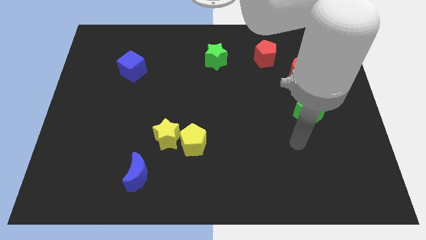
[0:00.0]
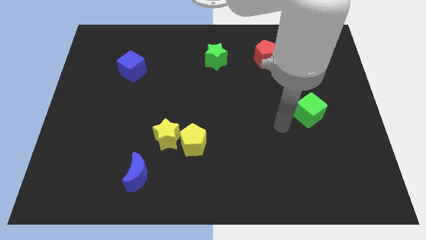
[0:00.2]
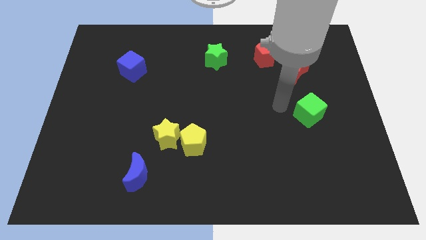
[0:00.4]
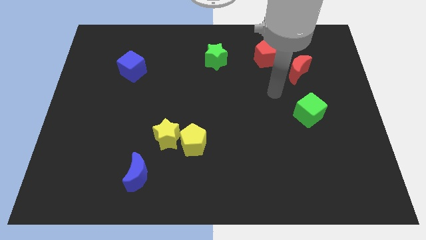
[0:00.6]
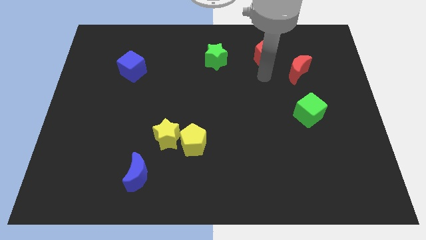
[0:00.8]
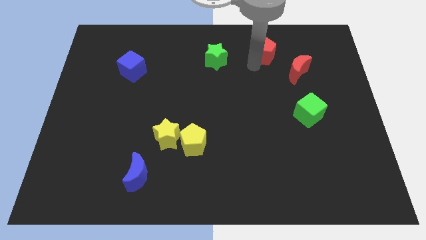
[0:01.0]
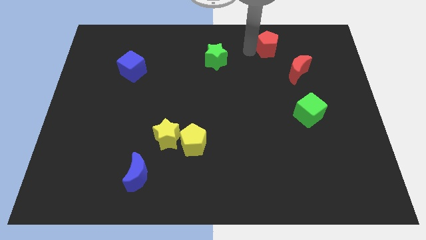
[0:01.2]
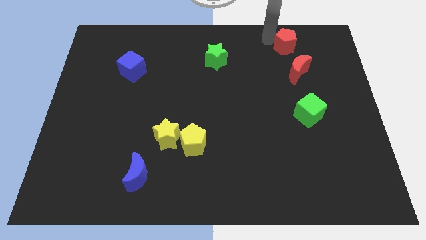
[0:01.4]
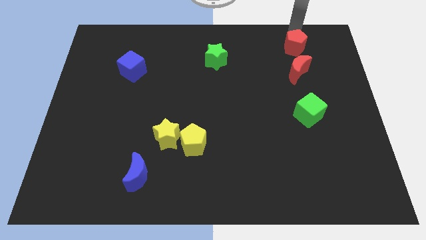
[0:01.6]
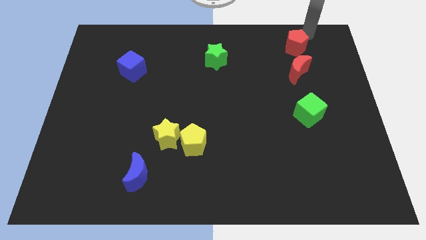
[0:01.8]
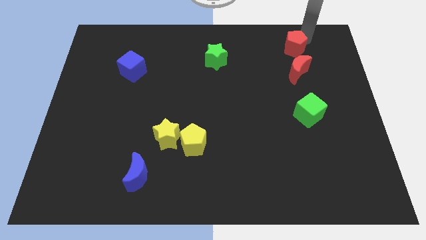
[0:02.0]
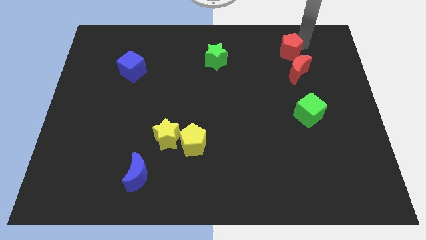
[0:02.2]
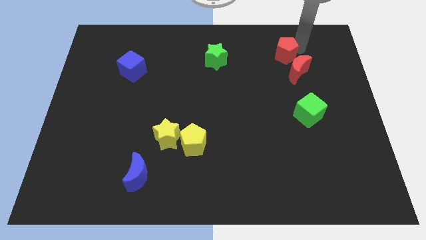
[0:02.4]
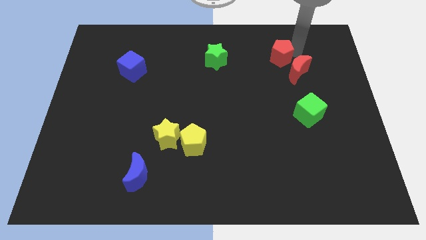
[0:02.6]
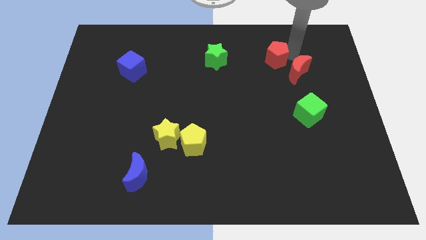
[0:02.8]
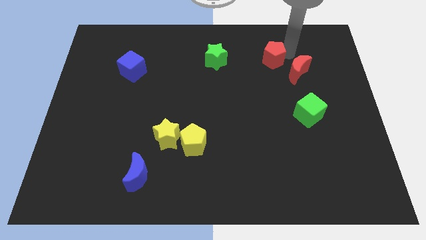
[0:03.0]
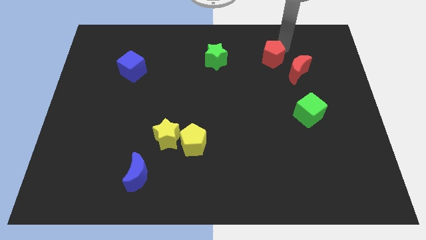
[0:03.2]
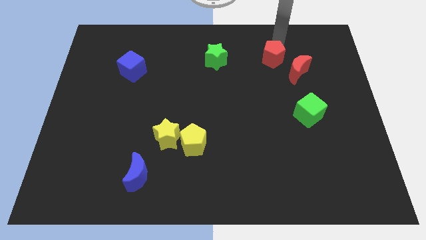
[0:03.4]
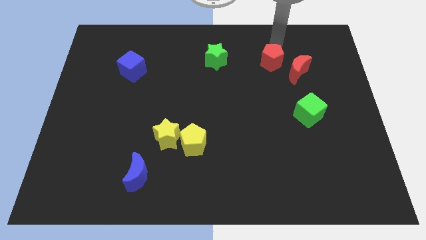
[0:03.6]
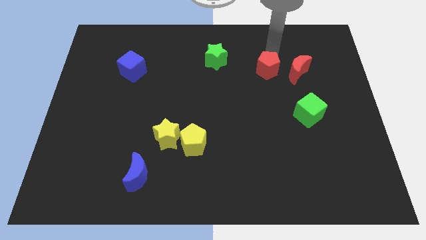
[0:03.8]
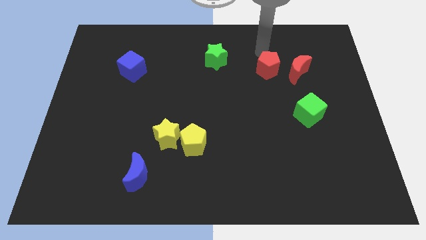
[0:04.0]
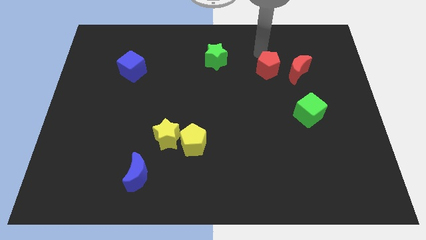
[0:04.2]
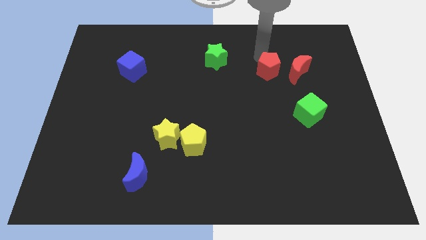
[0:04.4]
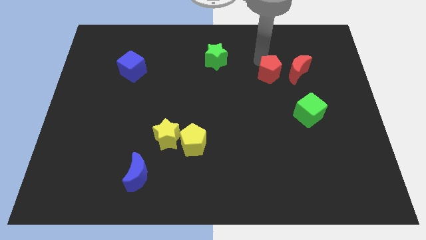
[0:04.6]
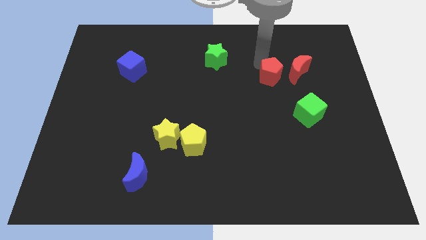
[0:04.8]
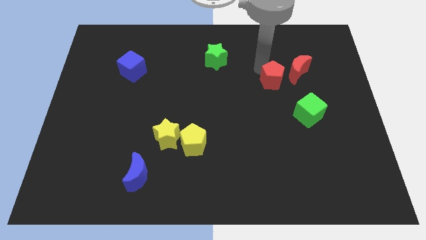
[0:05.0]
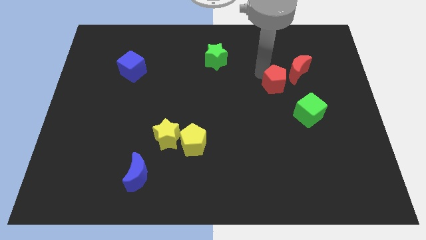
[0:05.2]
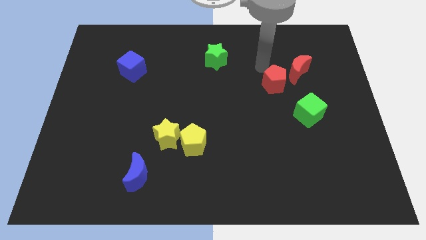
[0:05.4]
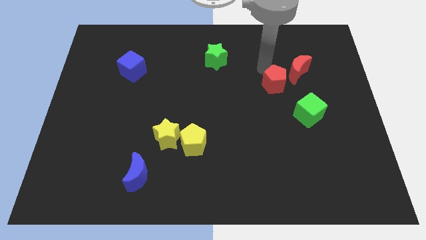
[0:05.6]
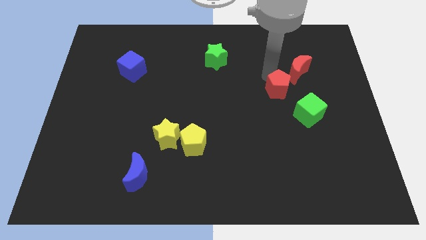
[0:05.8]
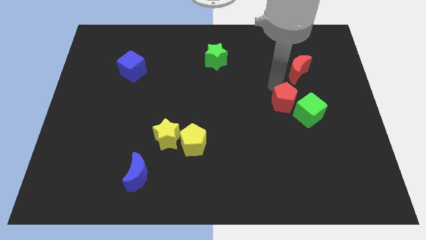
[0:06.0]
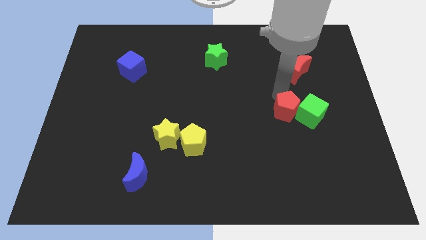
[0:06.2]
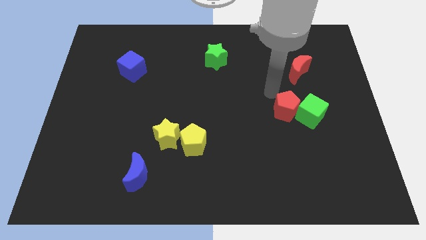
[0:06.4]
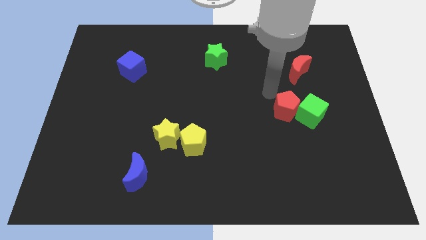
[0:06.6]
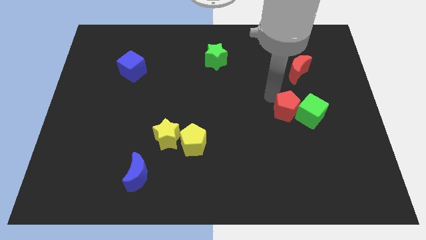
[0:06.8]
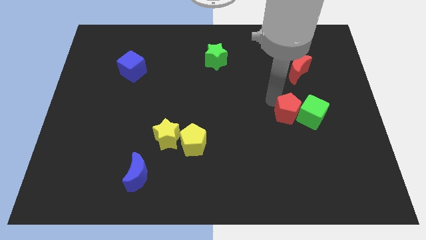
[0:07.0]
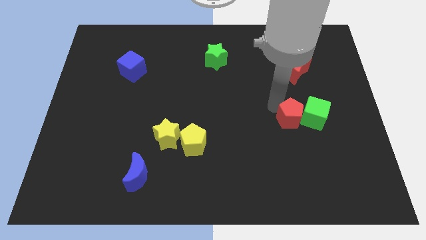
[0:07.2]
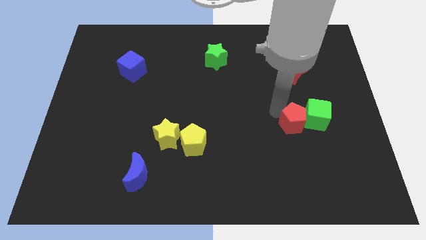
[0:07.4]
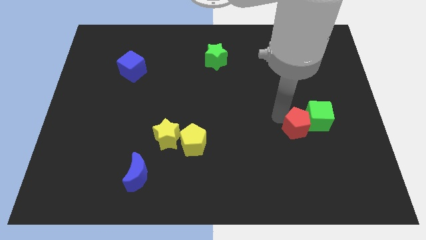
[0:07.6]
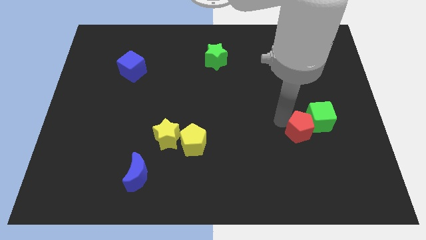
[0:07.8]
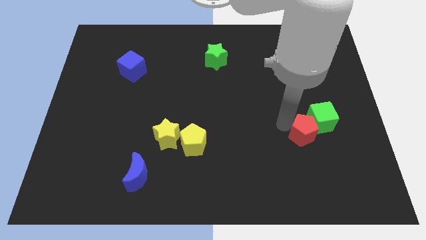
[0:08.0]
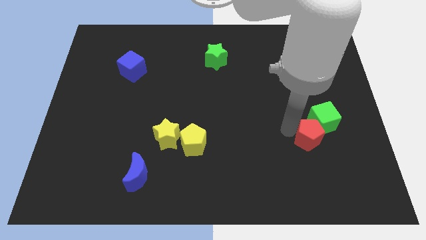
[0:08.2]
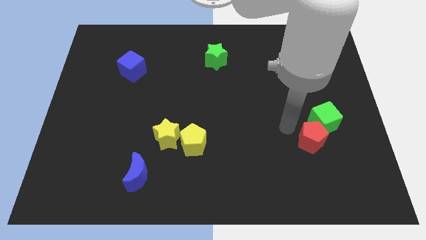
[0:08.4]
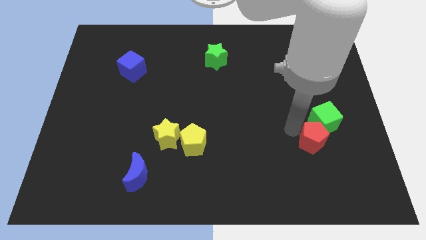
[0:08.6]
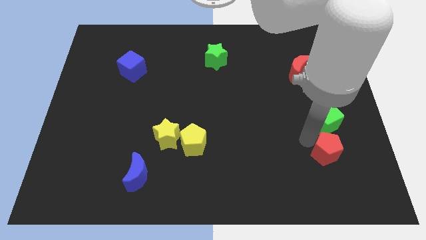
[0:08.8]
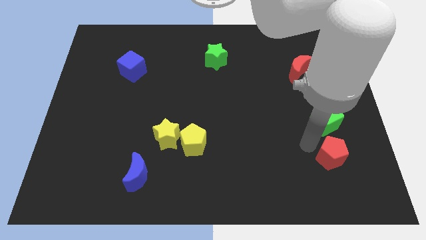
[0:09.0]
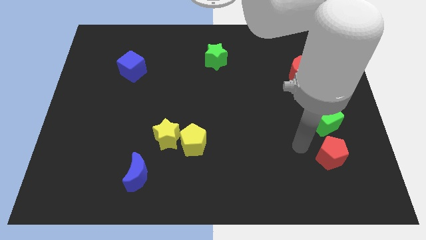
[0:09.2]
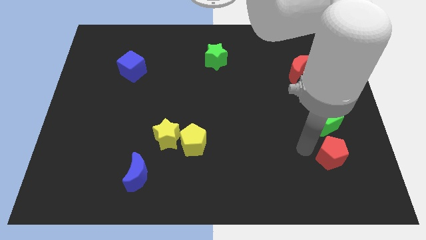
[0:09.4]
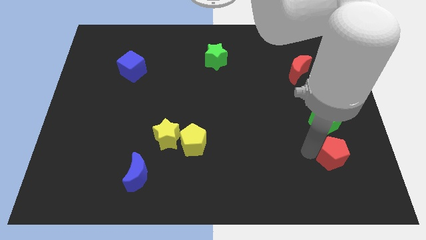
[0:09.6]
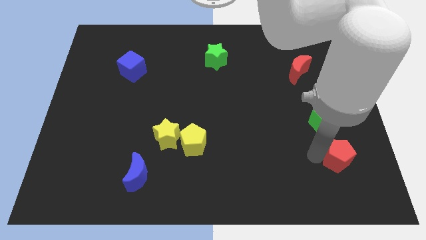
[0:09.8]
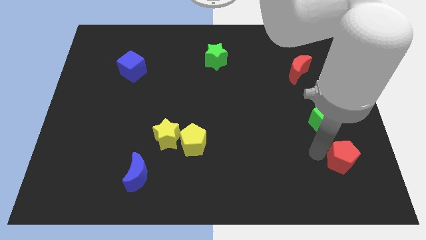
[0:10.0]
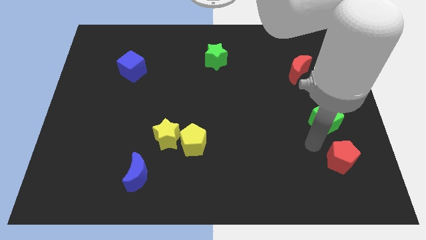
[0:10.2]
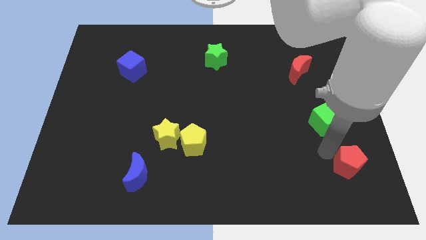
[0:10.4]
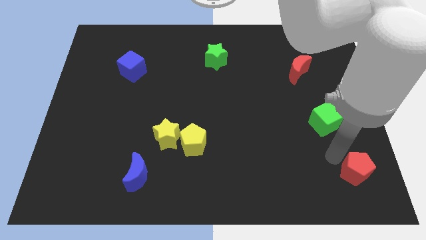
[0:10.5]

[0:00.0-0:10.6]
put the red pentagon to the bottom right of the board

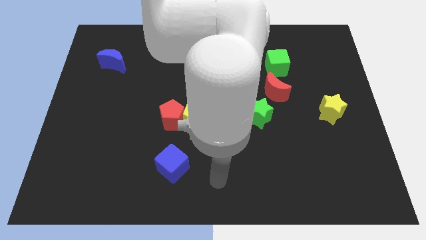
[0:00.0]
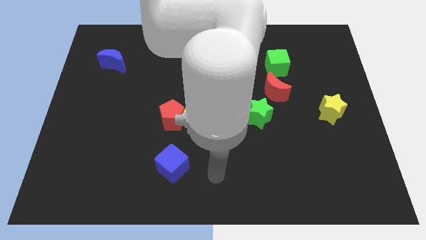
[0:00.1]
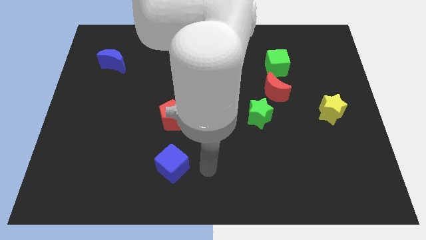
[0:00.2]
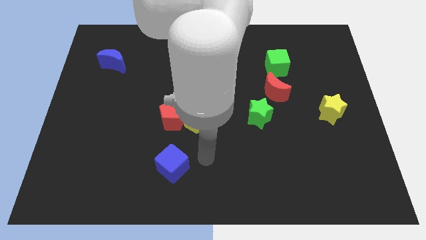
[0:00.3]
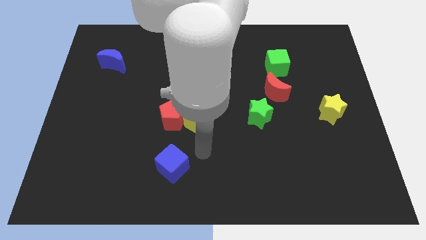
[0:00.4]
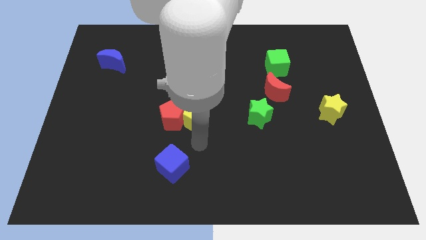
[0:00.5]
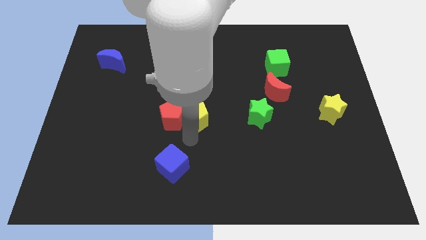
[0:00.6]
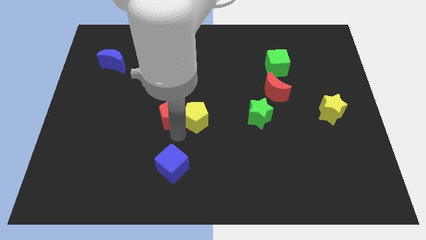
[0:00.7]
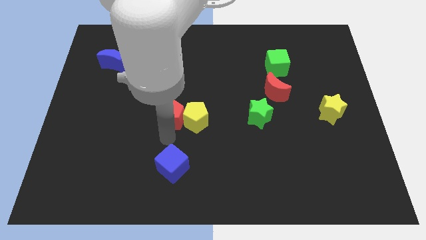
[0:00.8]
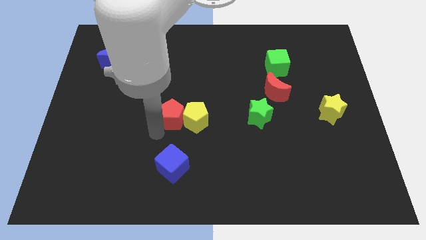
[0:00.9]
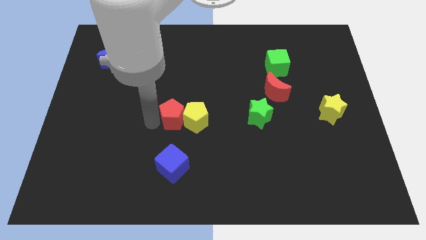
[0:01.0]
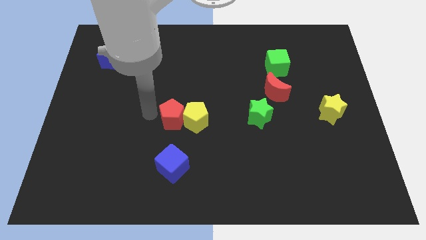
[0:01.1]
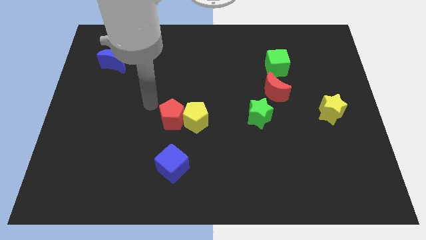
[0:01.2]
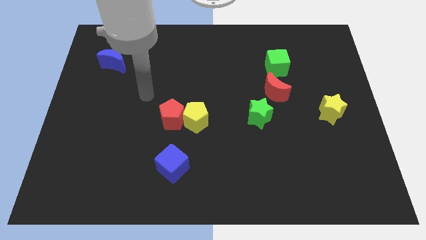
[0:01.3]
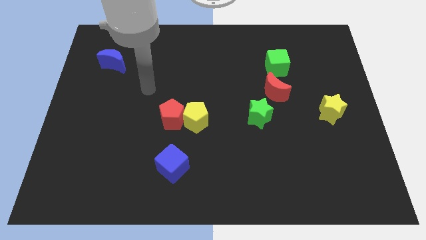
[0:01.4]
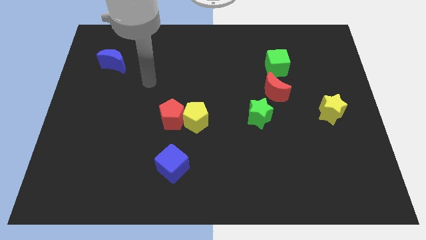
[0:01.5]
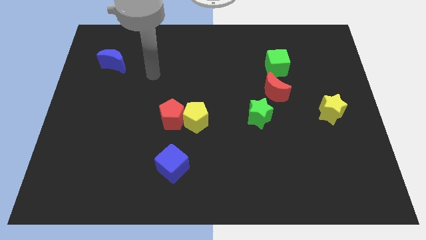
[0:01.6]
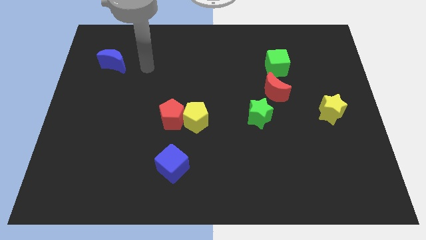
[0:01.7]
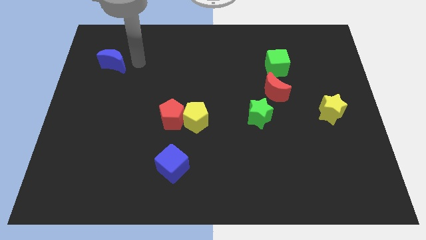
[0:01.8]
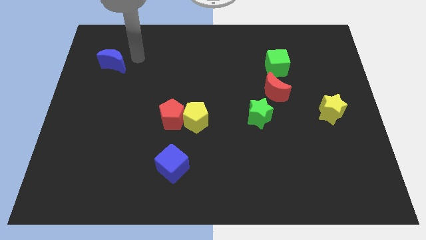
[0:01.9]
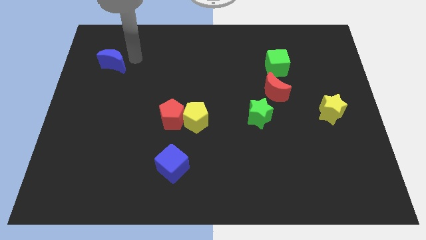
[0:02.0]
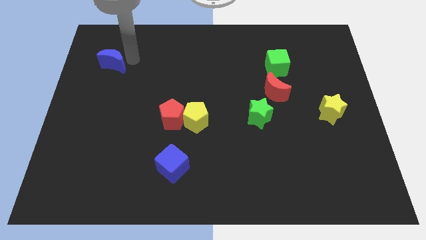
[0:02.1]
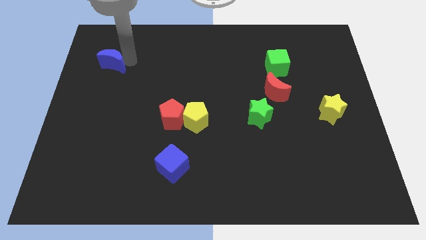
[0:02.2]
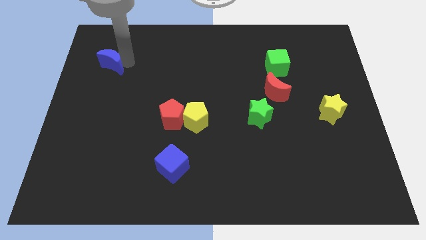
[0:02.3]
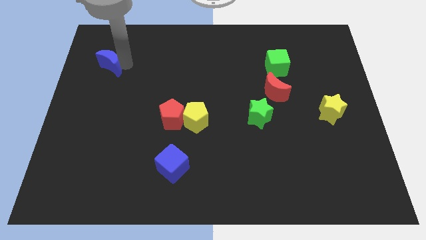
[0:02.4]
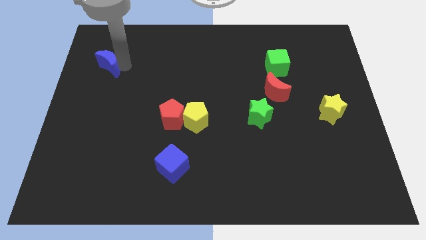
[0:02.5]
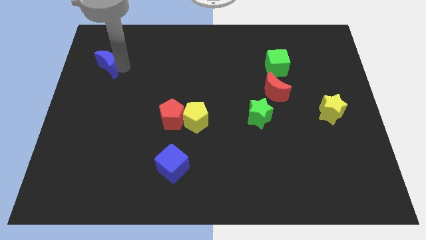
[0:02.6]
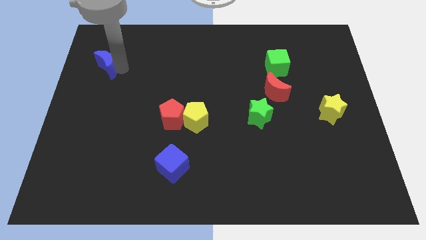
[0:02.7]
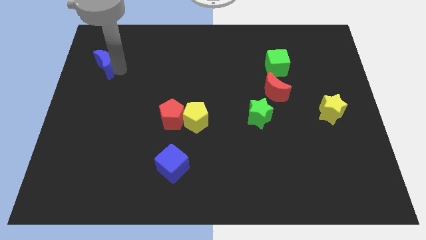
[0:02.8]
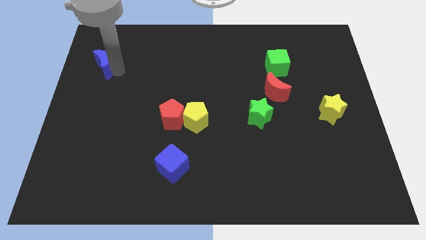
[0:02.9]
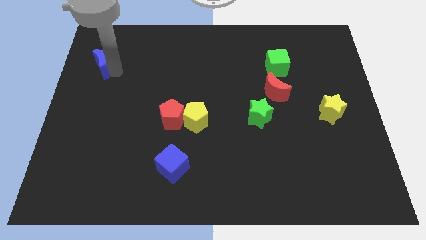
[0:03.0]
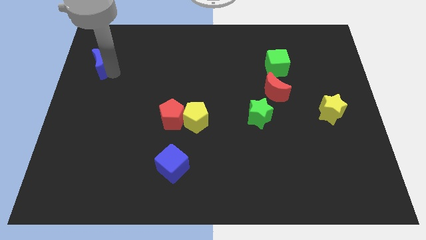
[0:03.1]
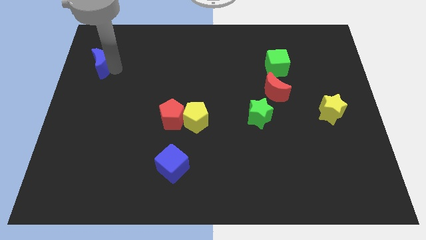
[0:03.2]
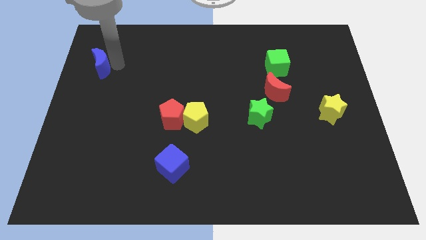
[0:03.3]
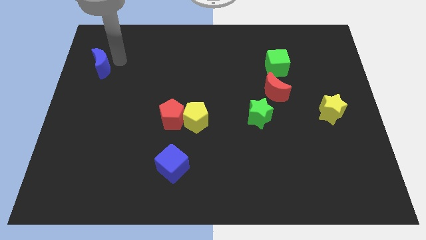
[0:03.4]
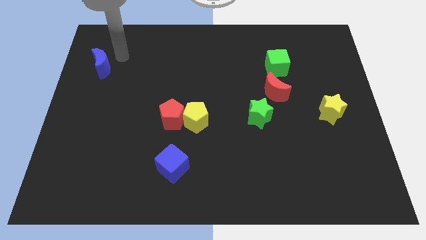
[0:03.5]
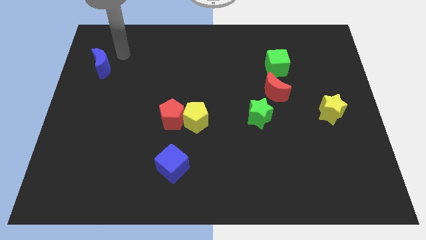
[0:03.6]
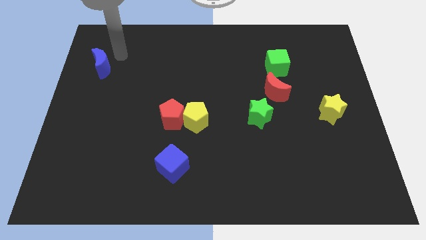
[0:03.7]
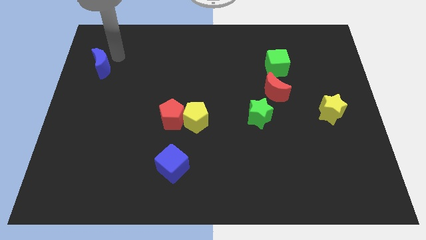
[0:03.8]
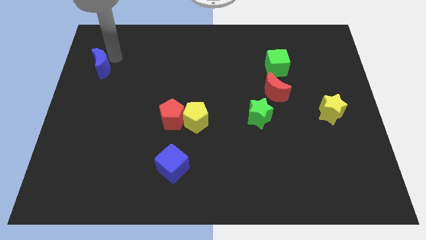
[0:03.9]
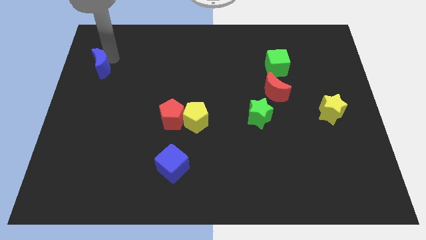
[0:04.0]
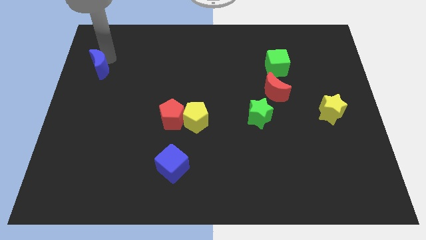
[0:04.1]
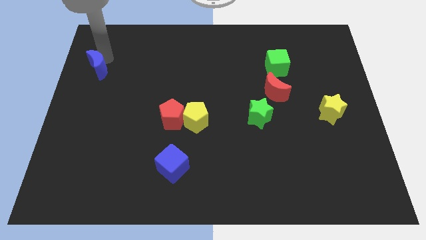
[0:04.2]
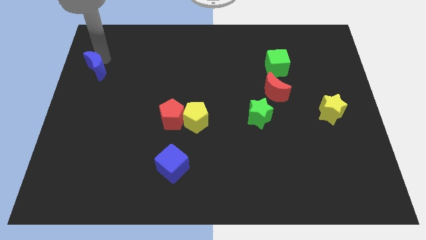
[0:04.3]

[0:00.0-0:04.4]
put the blue moon to the center left
